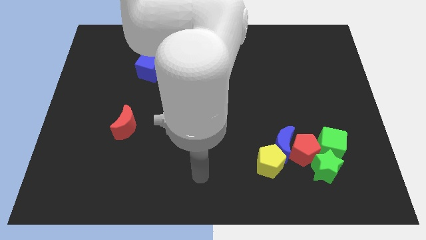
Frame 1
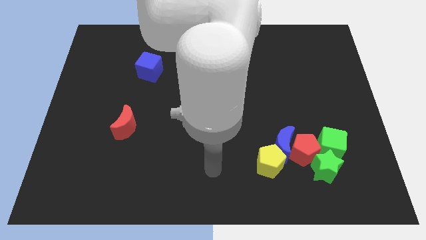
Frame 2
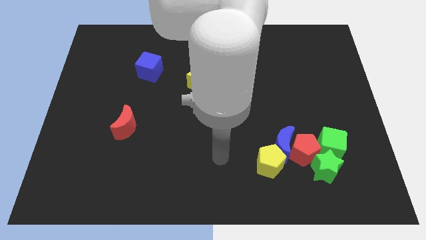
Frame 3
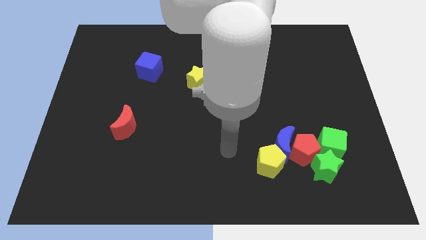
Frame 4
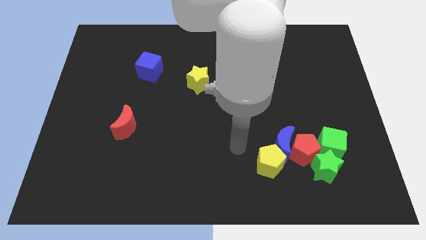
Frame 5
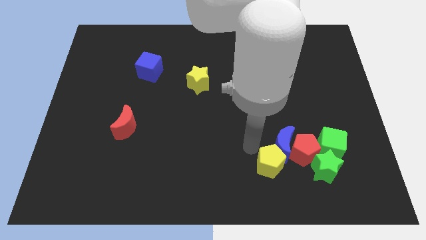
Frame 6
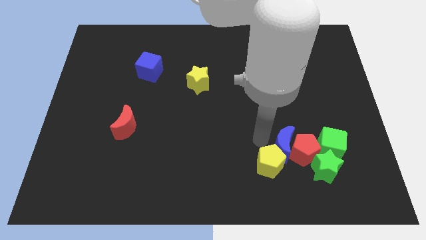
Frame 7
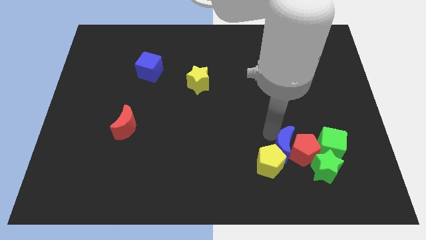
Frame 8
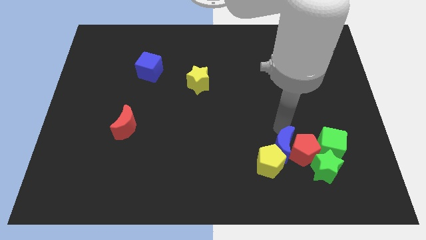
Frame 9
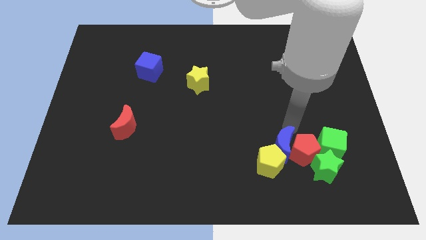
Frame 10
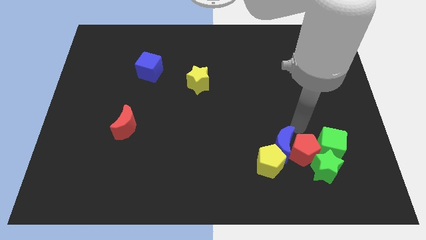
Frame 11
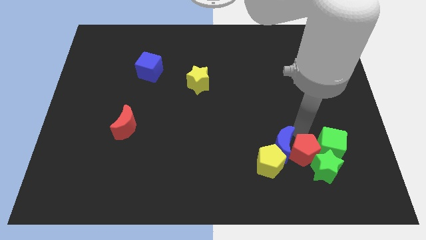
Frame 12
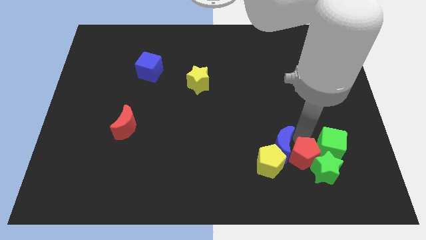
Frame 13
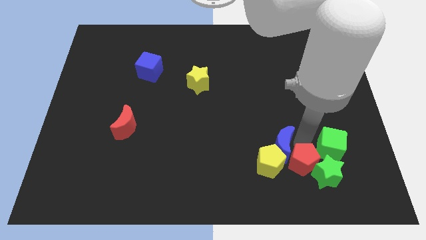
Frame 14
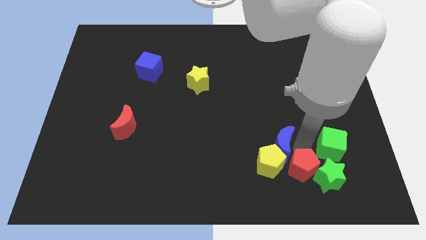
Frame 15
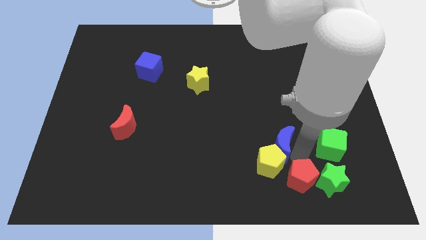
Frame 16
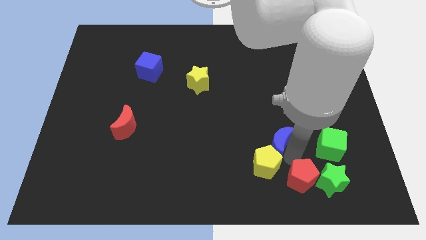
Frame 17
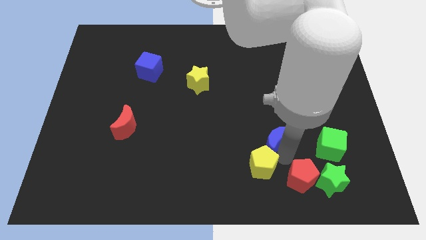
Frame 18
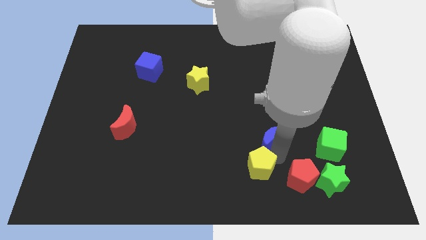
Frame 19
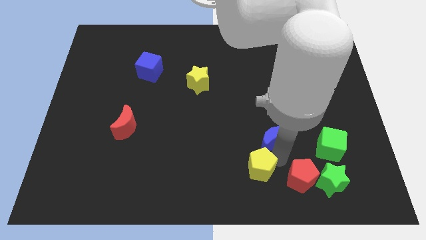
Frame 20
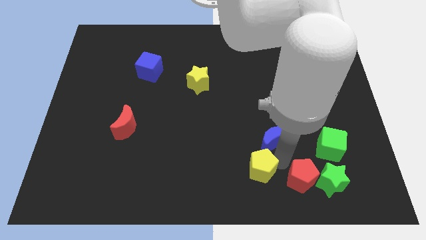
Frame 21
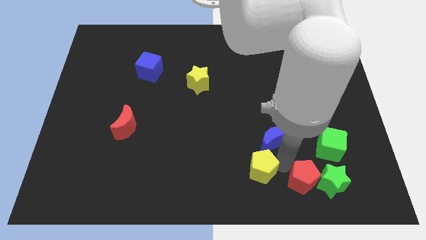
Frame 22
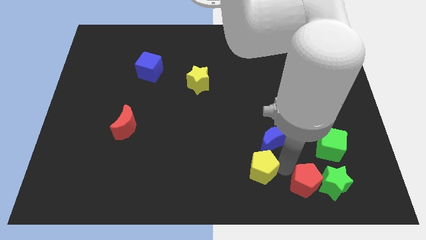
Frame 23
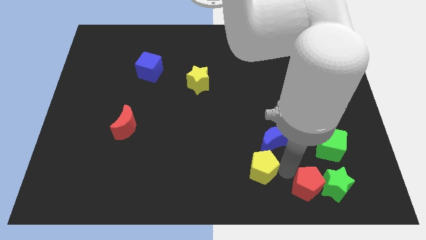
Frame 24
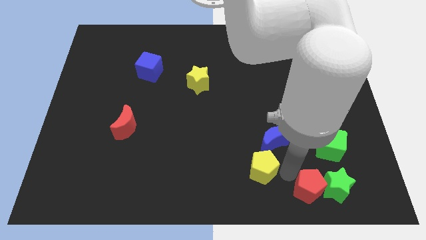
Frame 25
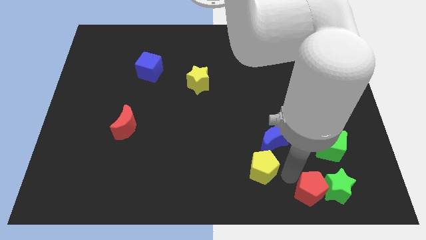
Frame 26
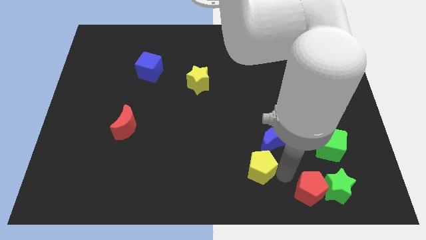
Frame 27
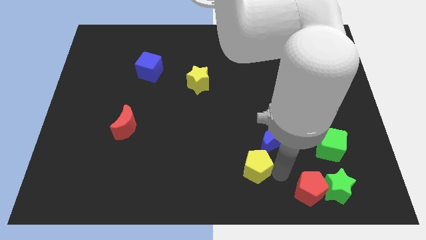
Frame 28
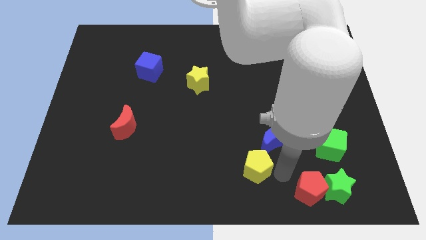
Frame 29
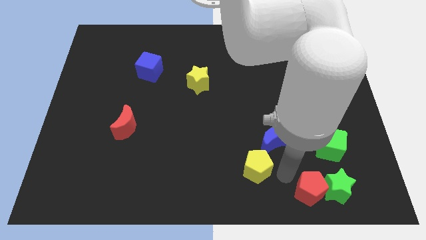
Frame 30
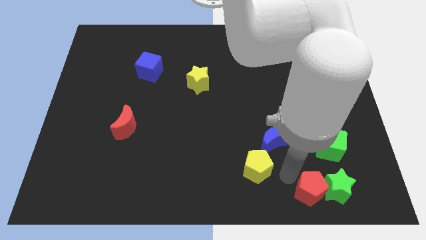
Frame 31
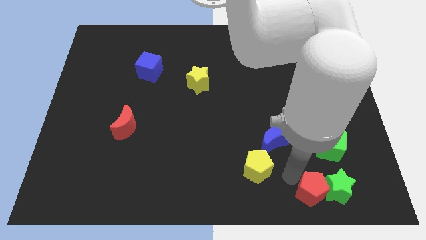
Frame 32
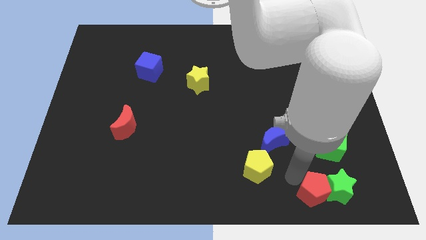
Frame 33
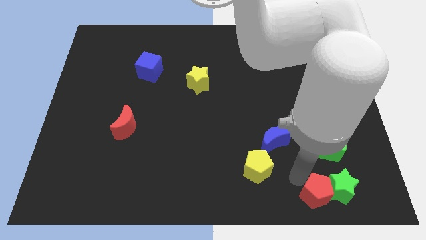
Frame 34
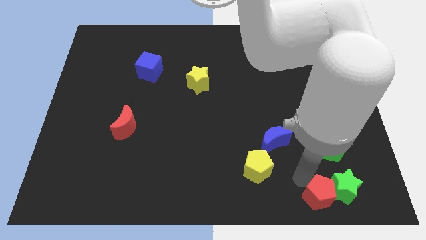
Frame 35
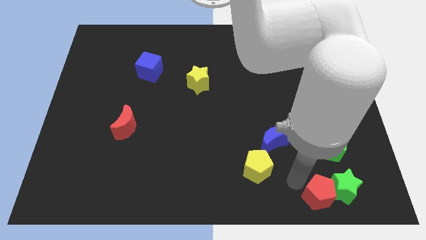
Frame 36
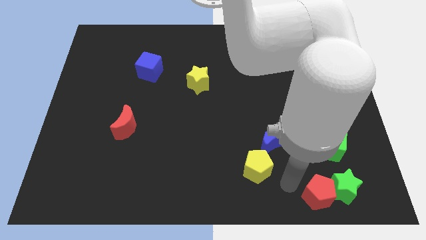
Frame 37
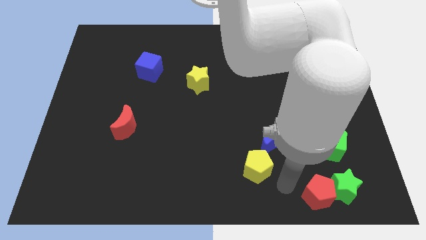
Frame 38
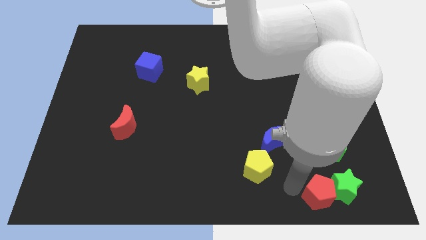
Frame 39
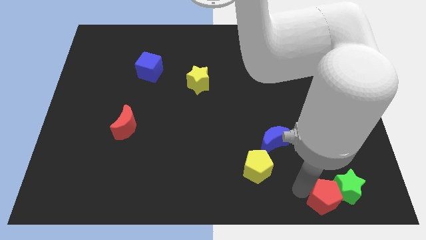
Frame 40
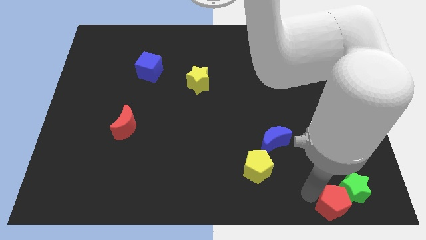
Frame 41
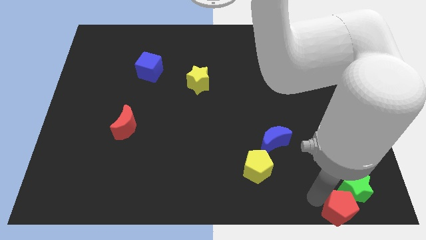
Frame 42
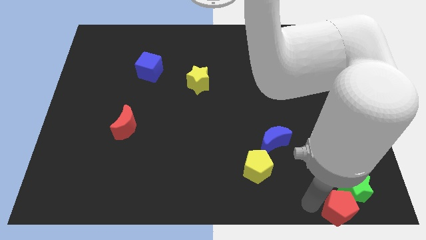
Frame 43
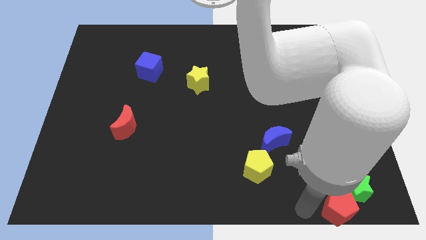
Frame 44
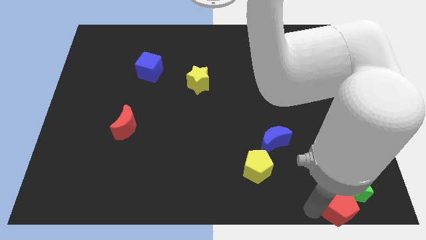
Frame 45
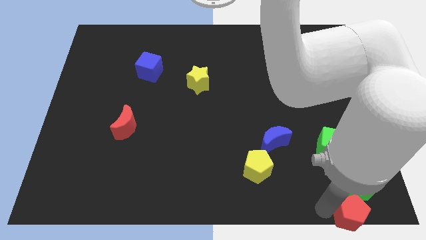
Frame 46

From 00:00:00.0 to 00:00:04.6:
put the red pentagon to the bottom right

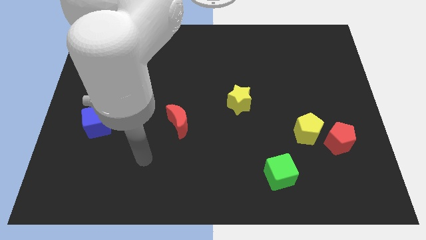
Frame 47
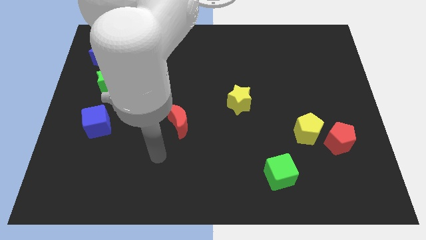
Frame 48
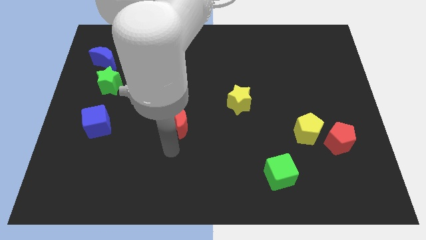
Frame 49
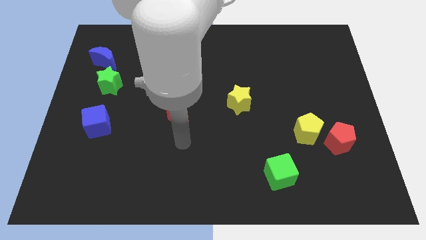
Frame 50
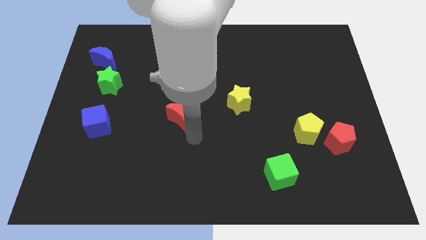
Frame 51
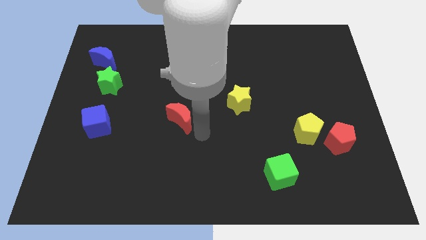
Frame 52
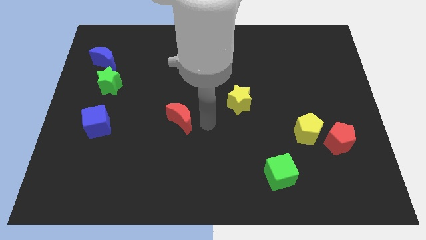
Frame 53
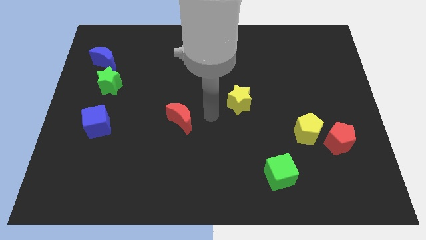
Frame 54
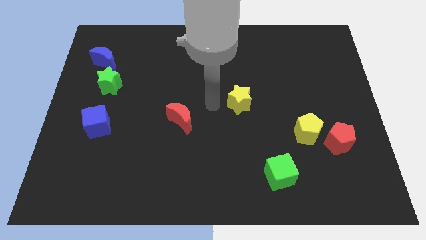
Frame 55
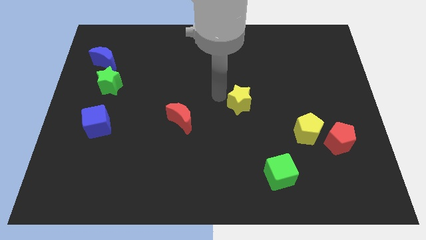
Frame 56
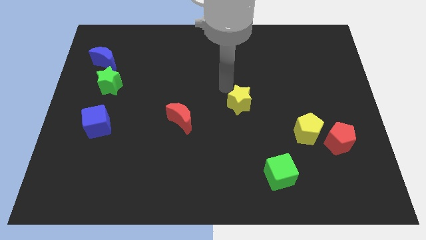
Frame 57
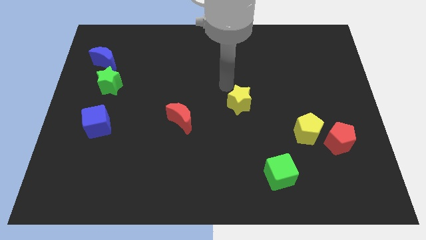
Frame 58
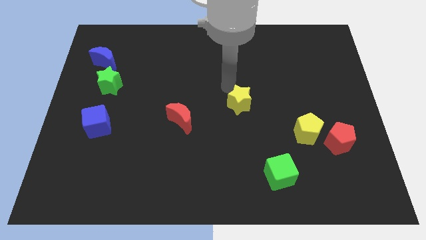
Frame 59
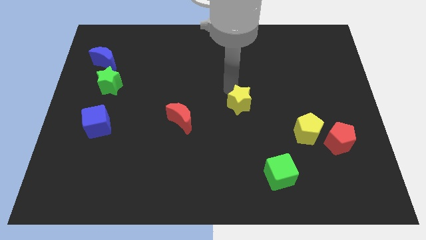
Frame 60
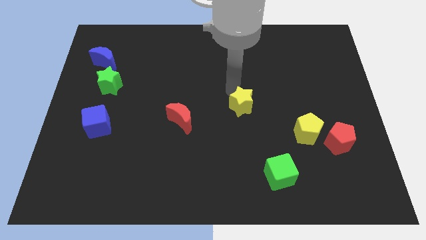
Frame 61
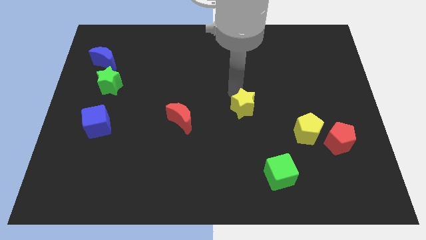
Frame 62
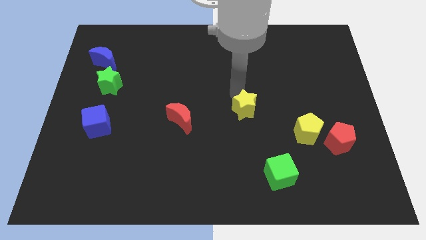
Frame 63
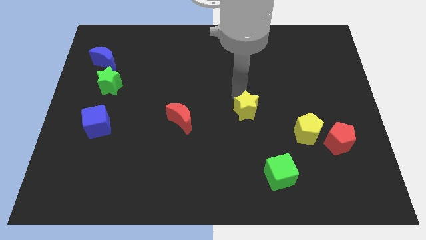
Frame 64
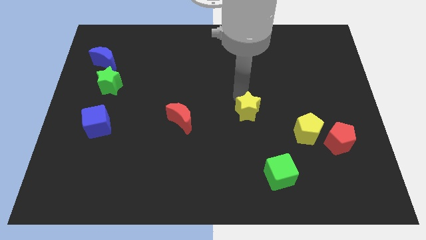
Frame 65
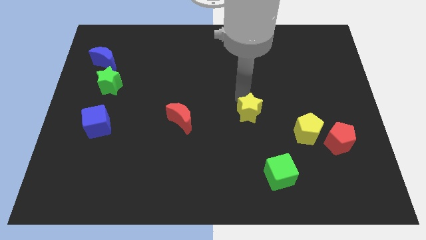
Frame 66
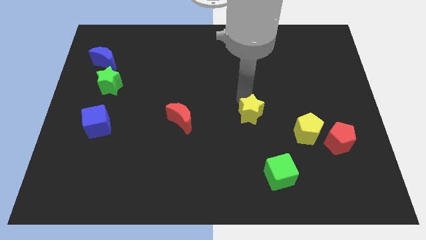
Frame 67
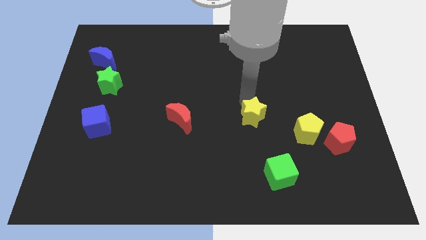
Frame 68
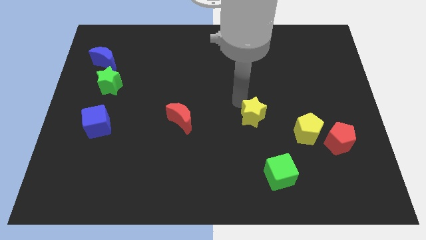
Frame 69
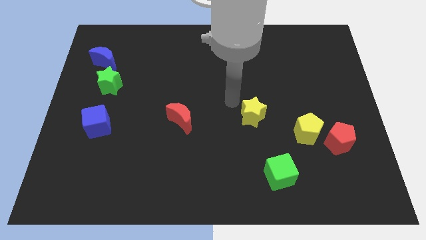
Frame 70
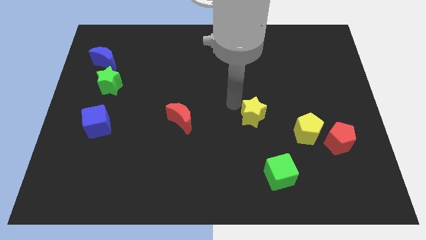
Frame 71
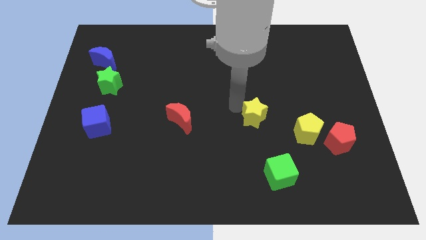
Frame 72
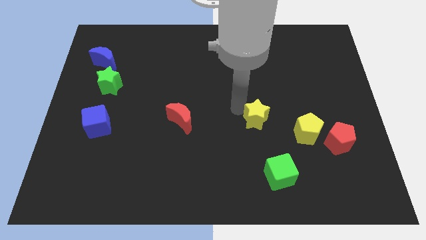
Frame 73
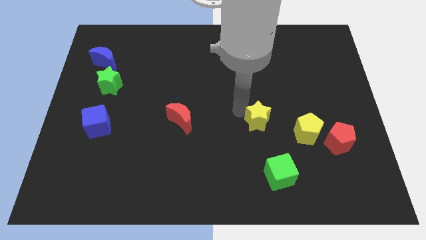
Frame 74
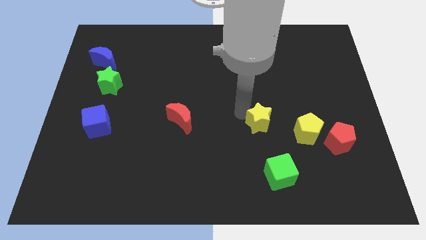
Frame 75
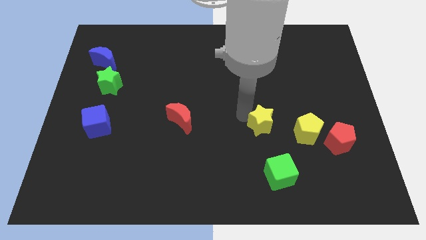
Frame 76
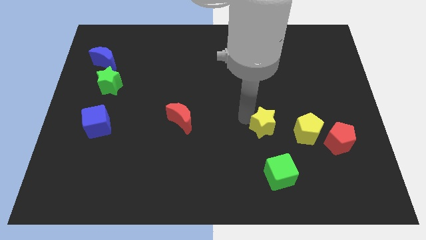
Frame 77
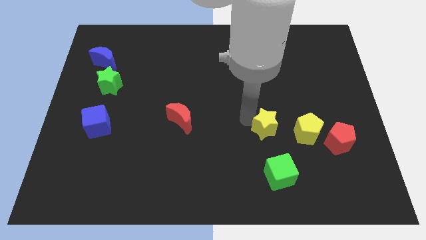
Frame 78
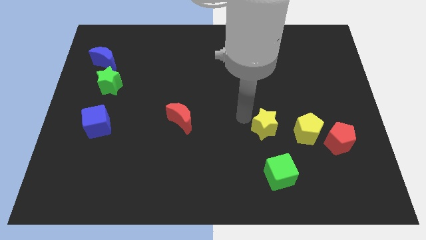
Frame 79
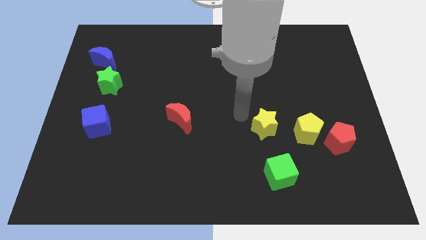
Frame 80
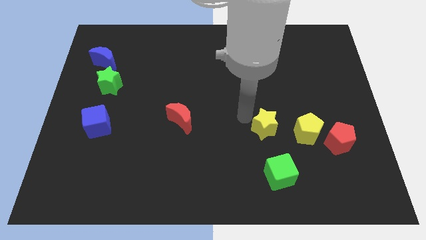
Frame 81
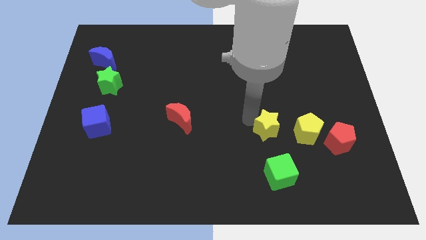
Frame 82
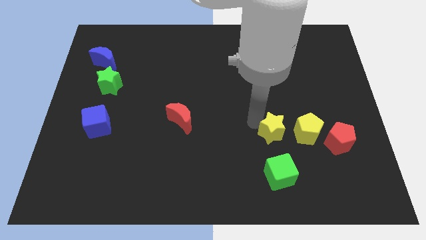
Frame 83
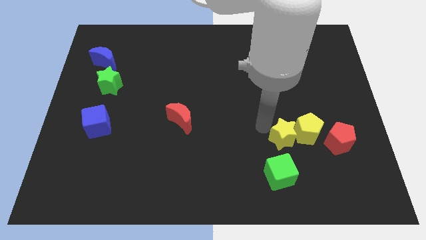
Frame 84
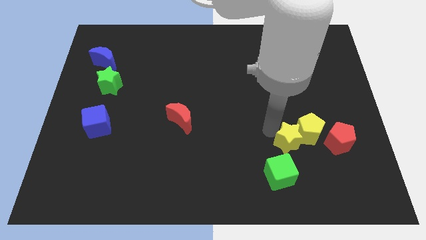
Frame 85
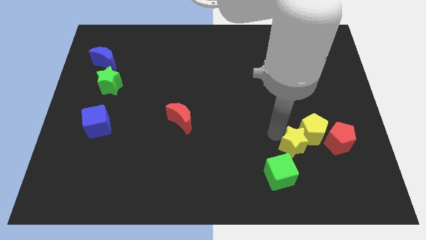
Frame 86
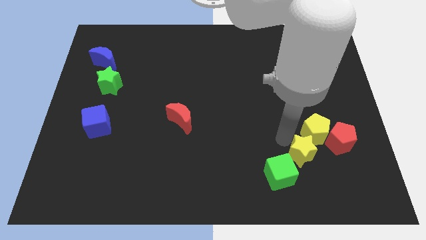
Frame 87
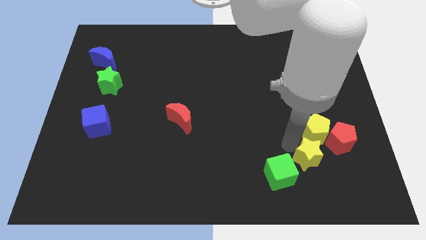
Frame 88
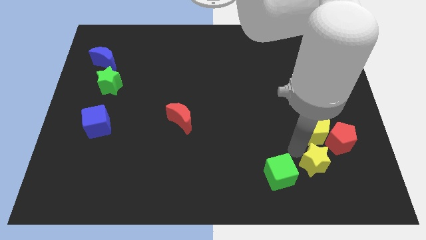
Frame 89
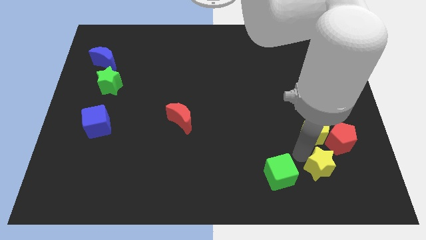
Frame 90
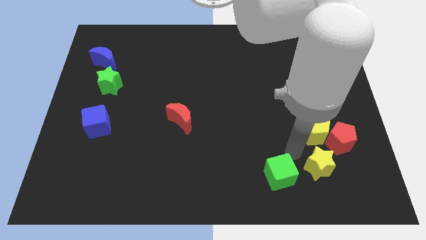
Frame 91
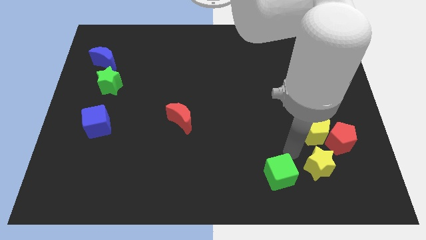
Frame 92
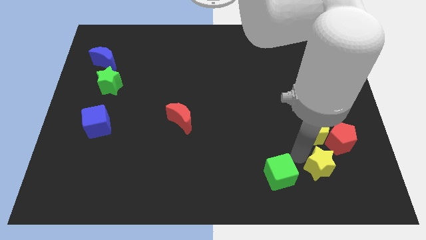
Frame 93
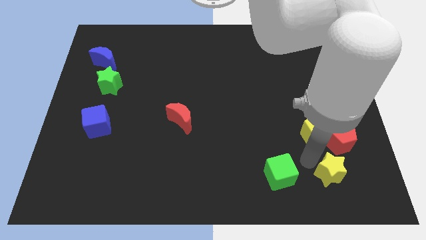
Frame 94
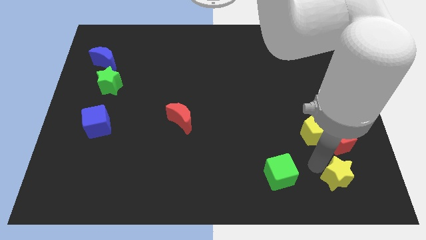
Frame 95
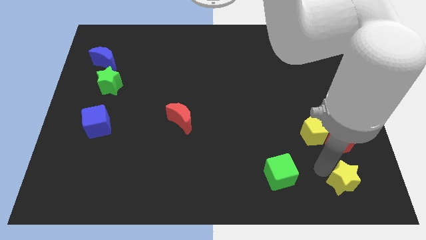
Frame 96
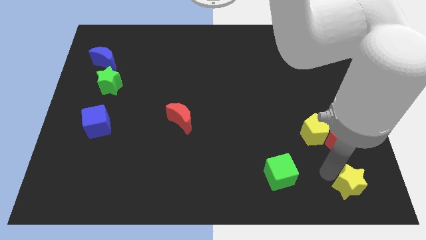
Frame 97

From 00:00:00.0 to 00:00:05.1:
put the yellow star to the bottom right of the board
